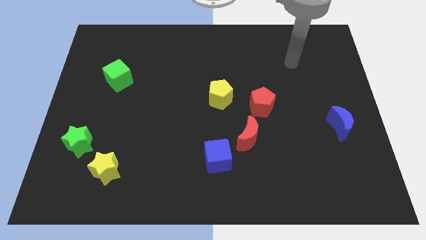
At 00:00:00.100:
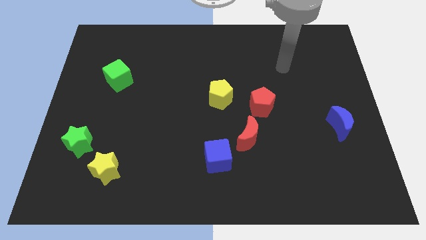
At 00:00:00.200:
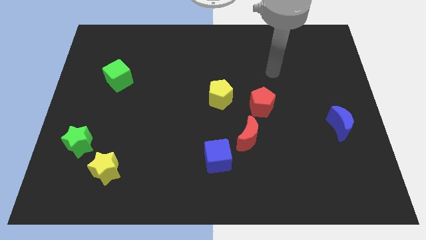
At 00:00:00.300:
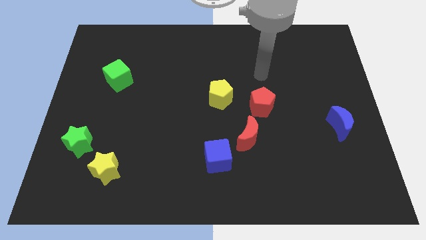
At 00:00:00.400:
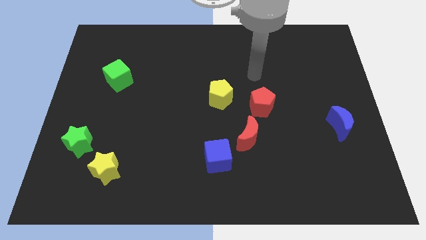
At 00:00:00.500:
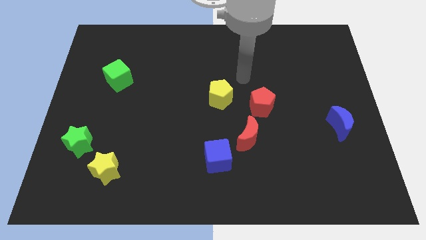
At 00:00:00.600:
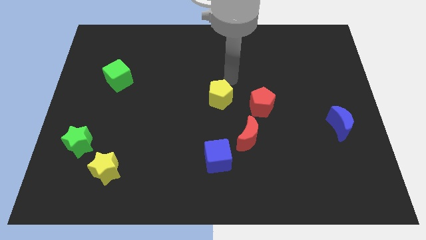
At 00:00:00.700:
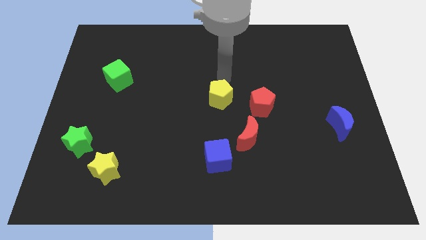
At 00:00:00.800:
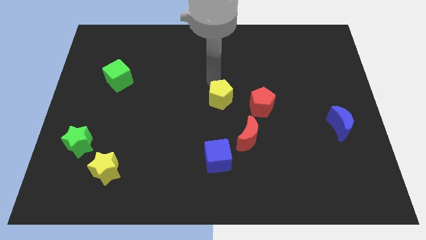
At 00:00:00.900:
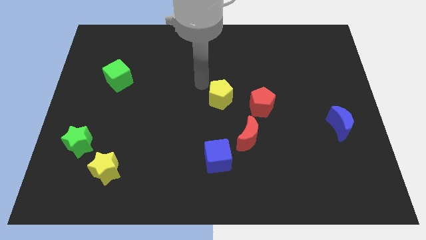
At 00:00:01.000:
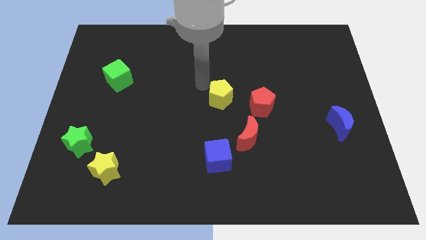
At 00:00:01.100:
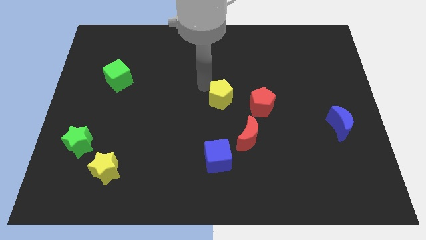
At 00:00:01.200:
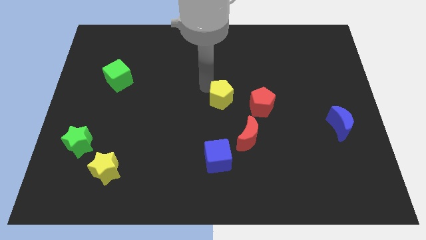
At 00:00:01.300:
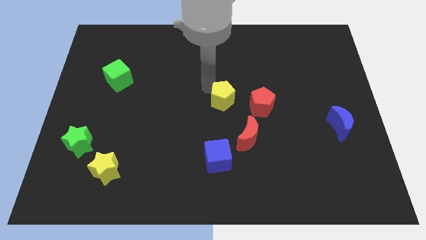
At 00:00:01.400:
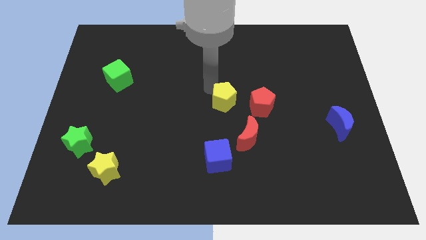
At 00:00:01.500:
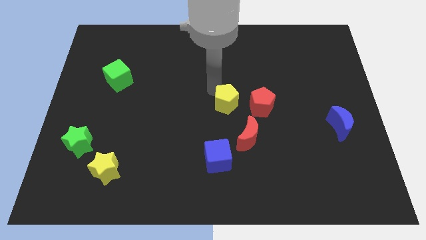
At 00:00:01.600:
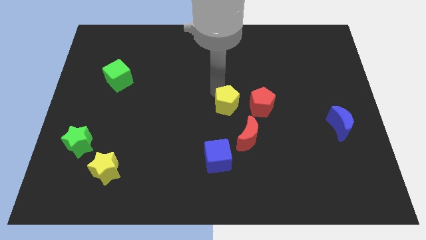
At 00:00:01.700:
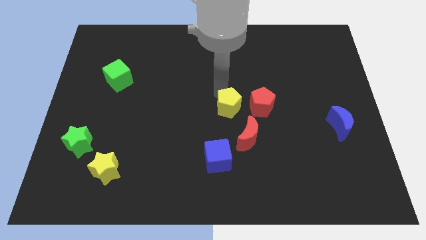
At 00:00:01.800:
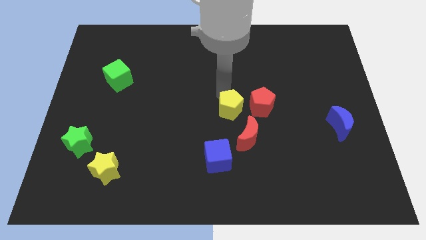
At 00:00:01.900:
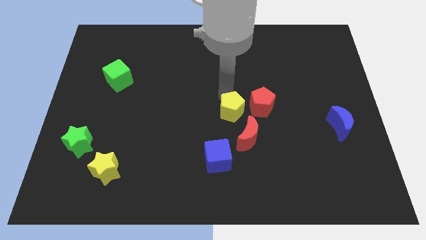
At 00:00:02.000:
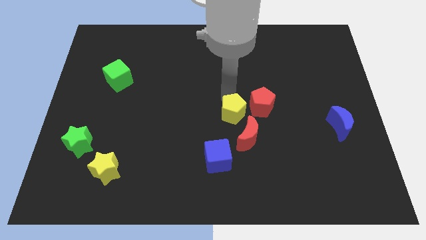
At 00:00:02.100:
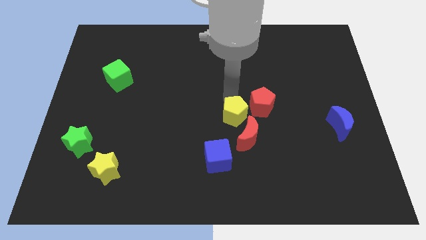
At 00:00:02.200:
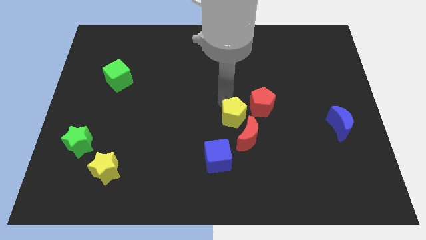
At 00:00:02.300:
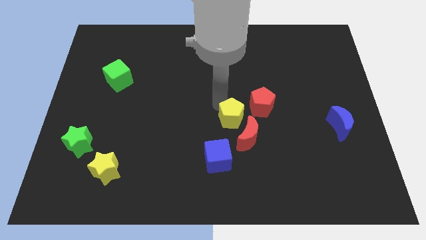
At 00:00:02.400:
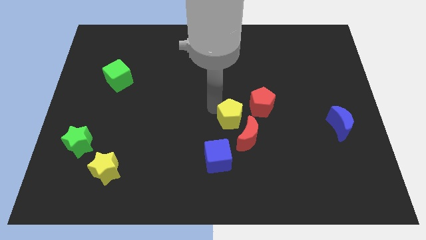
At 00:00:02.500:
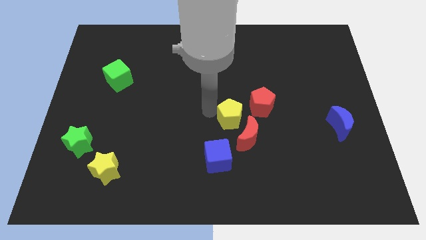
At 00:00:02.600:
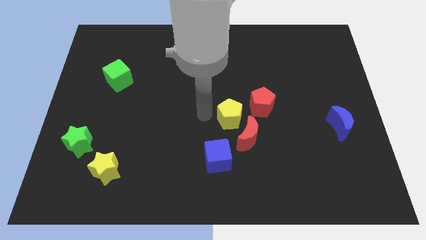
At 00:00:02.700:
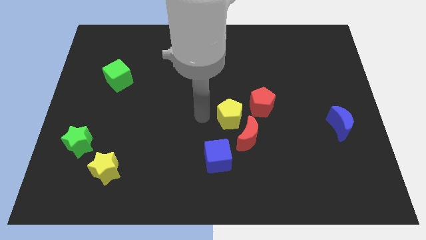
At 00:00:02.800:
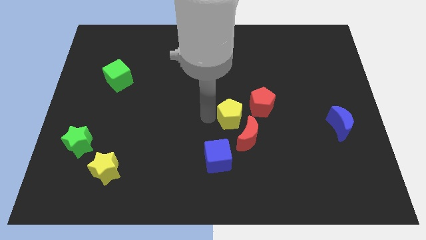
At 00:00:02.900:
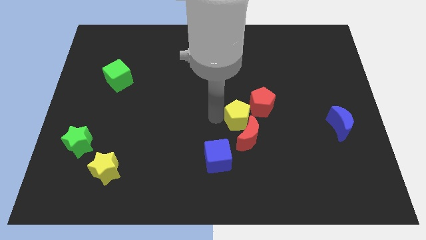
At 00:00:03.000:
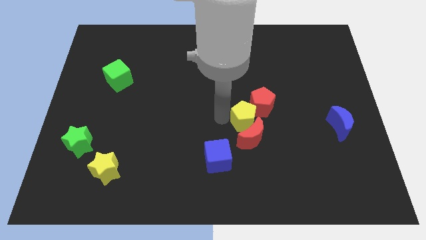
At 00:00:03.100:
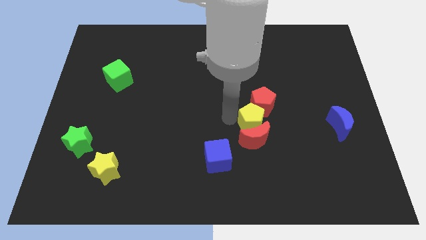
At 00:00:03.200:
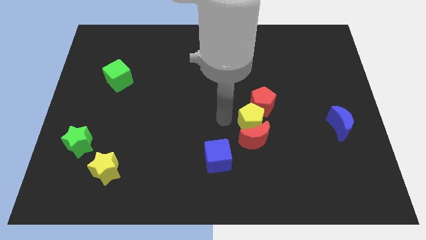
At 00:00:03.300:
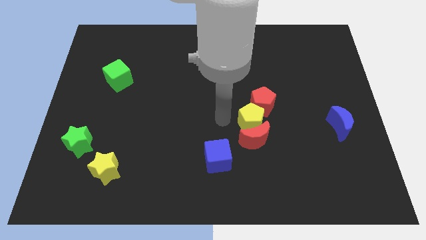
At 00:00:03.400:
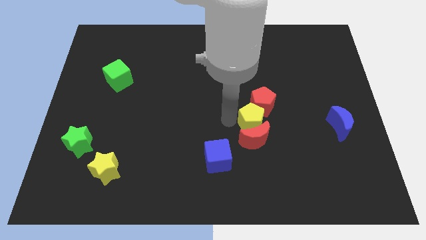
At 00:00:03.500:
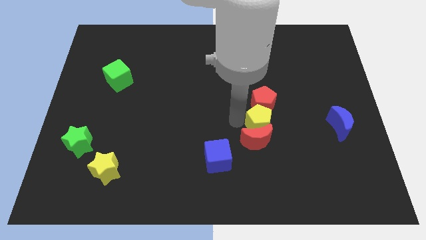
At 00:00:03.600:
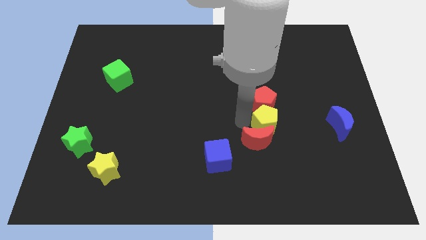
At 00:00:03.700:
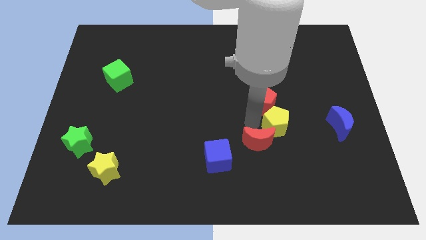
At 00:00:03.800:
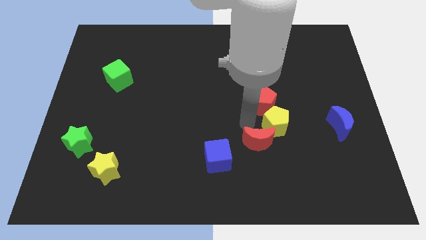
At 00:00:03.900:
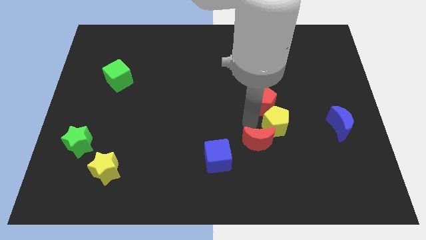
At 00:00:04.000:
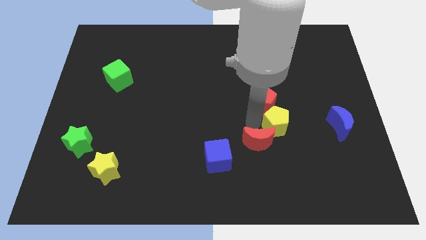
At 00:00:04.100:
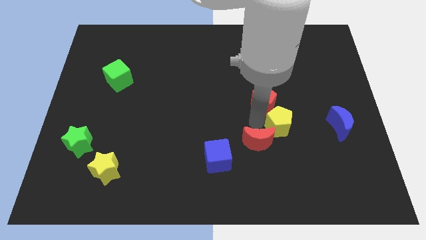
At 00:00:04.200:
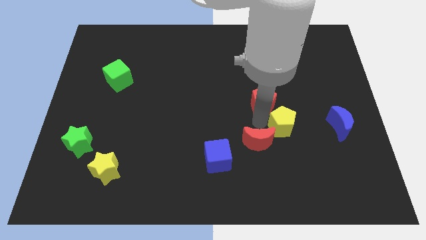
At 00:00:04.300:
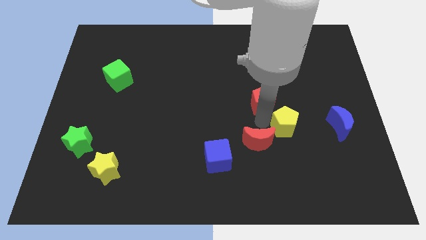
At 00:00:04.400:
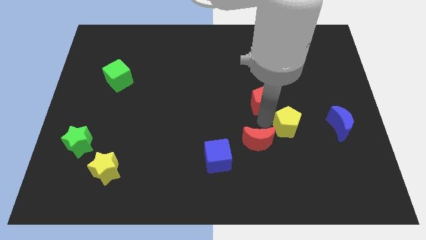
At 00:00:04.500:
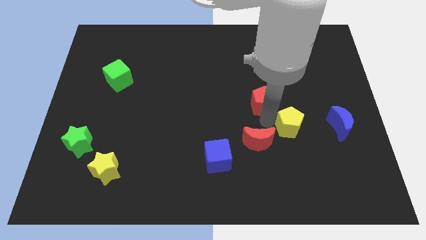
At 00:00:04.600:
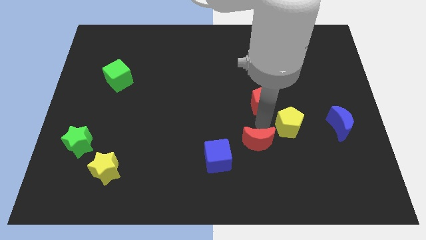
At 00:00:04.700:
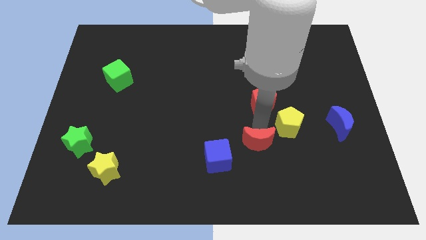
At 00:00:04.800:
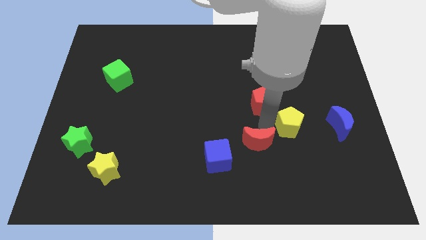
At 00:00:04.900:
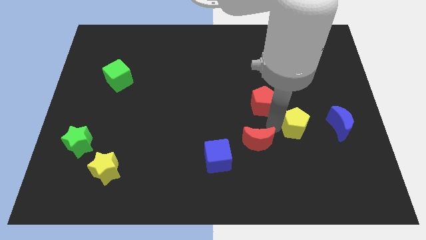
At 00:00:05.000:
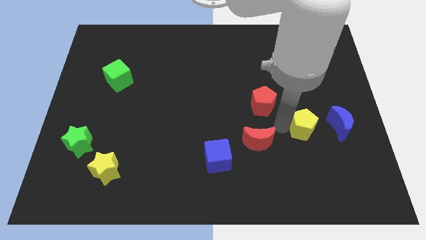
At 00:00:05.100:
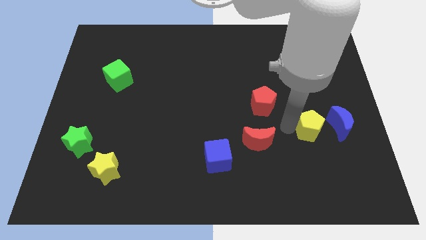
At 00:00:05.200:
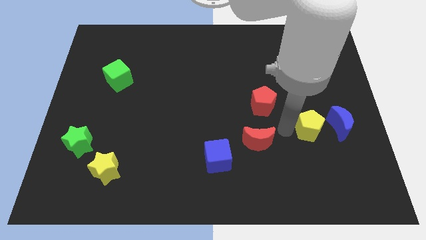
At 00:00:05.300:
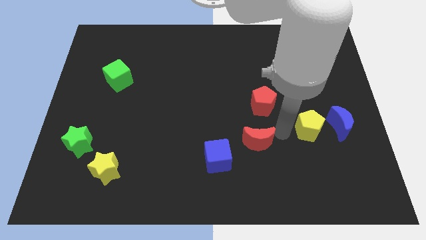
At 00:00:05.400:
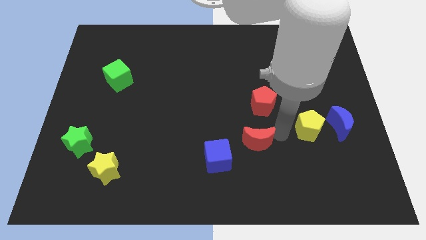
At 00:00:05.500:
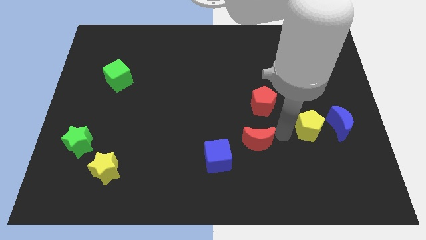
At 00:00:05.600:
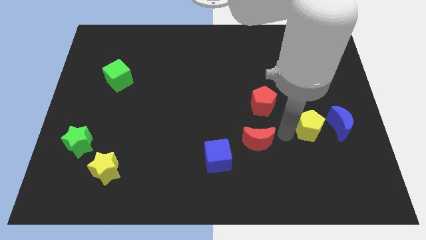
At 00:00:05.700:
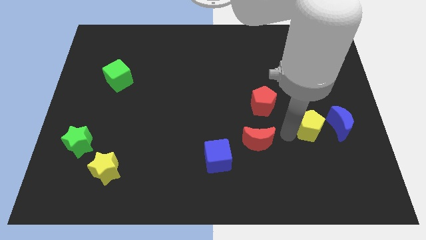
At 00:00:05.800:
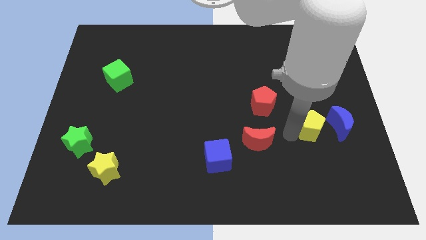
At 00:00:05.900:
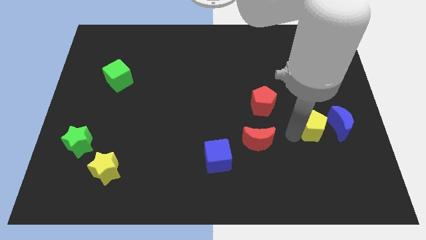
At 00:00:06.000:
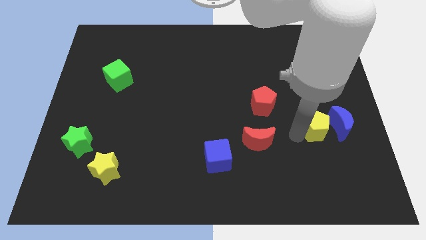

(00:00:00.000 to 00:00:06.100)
slide the yellow pentagon towards the blue moon
